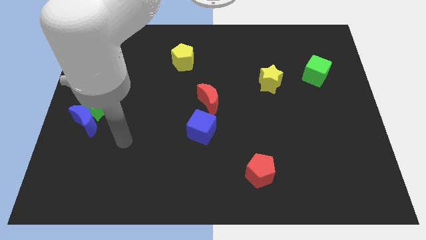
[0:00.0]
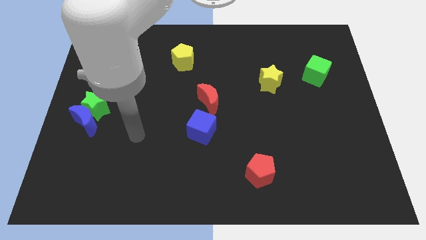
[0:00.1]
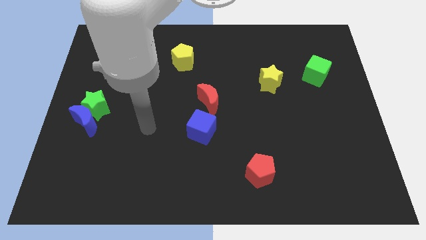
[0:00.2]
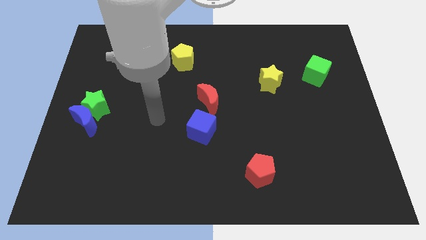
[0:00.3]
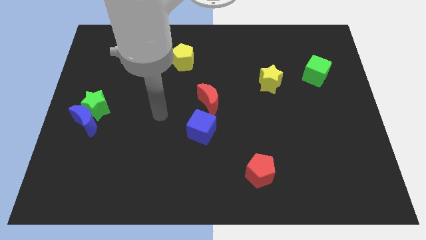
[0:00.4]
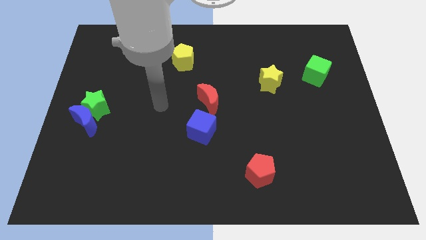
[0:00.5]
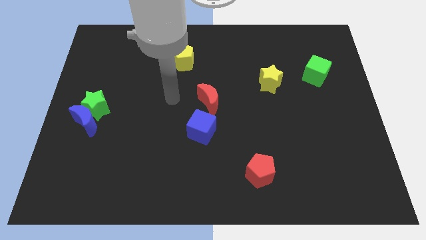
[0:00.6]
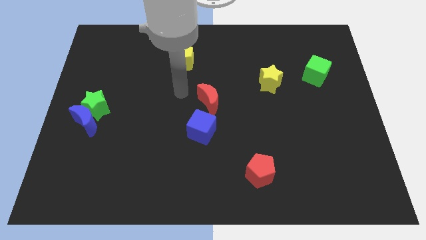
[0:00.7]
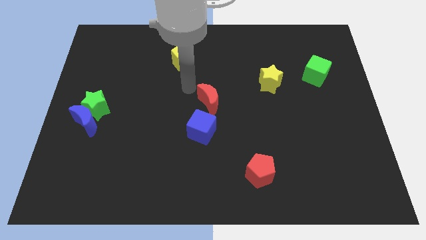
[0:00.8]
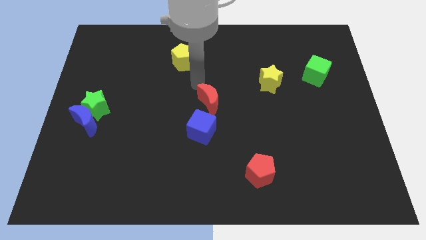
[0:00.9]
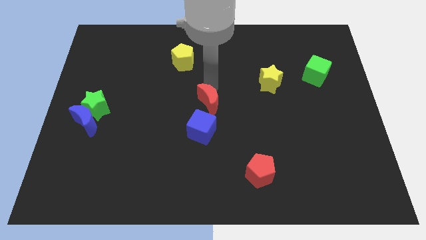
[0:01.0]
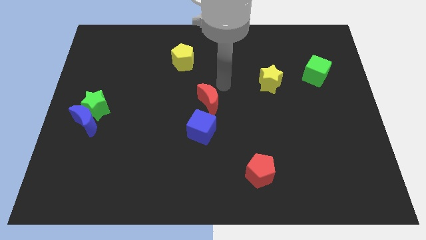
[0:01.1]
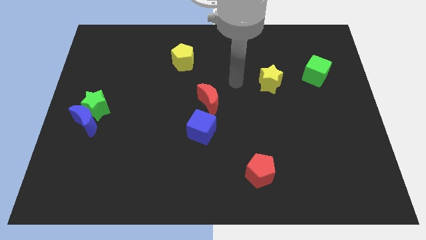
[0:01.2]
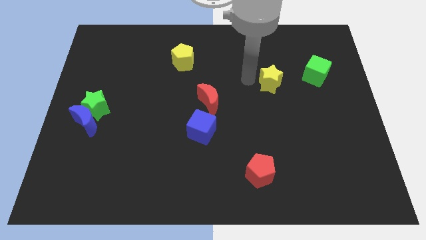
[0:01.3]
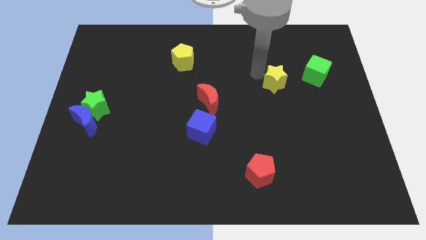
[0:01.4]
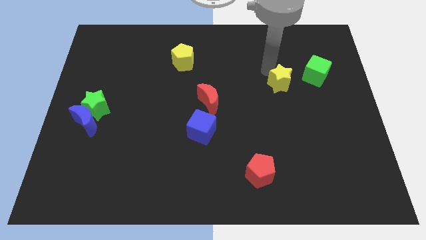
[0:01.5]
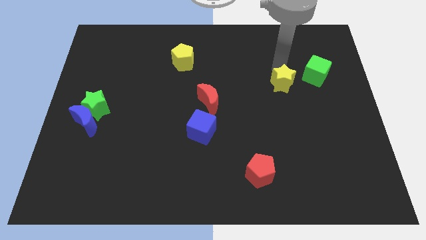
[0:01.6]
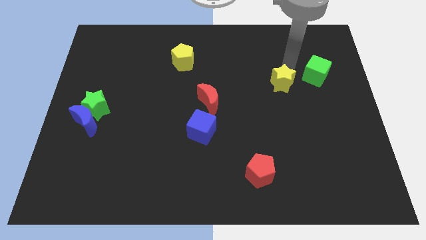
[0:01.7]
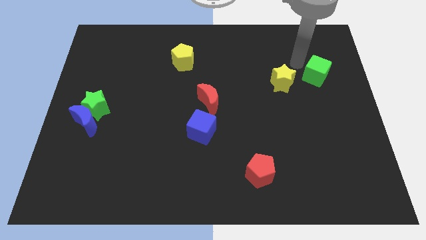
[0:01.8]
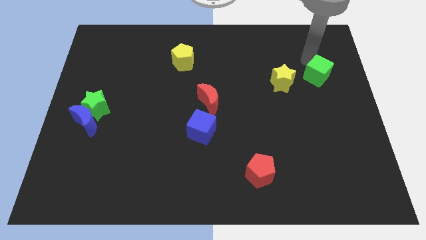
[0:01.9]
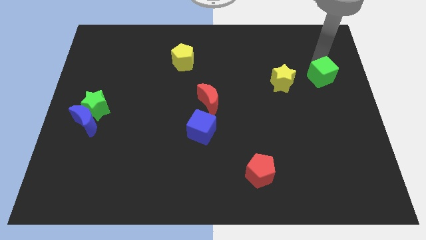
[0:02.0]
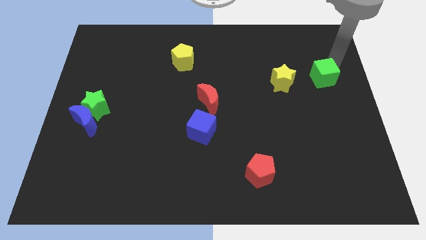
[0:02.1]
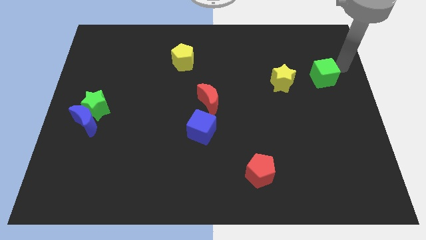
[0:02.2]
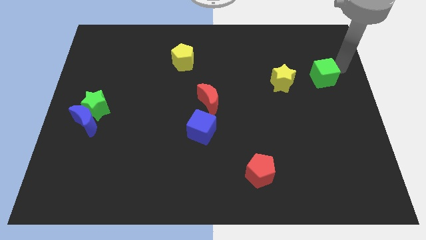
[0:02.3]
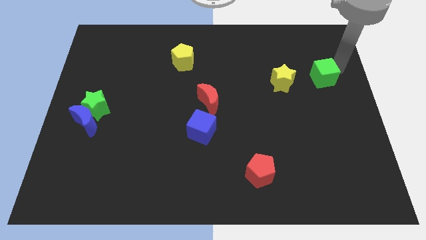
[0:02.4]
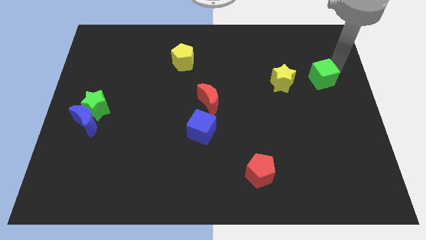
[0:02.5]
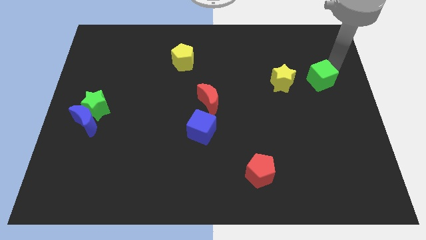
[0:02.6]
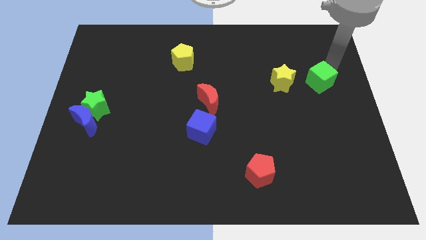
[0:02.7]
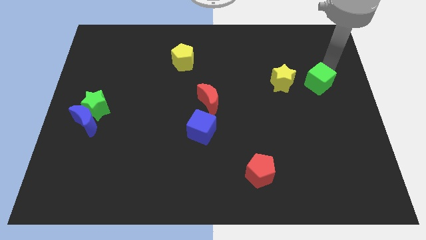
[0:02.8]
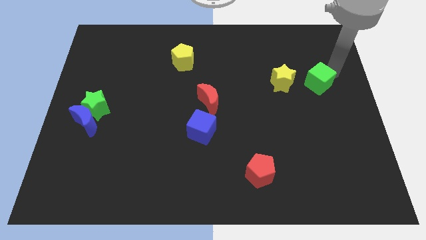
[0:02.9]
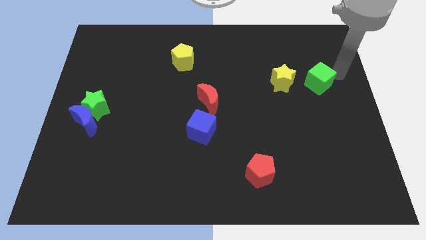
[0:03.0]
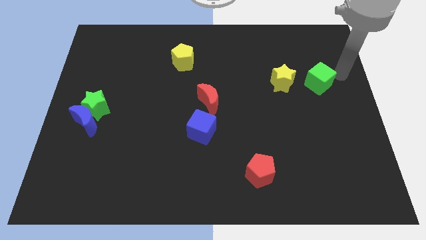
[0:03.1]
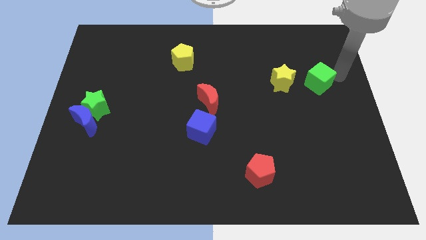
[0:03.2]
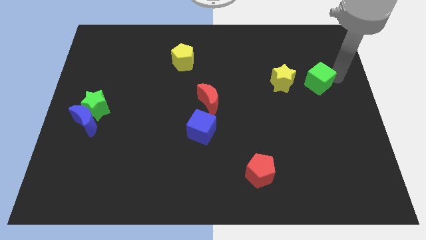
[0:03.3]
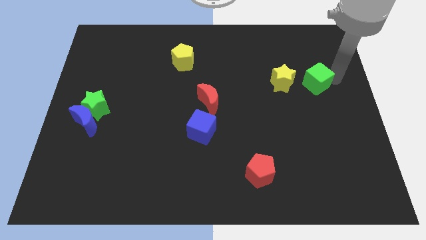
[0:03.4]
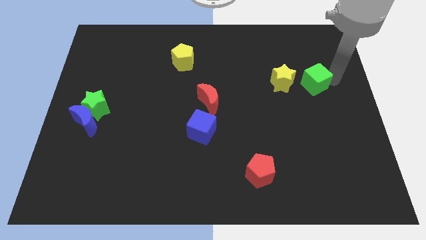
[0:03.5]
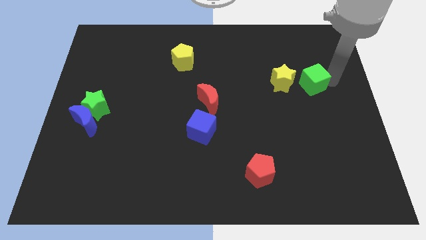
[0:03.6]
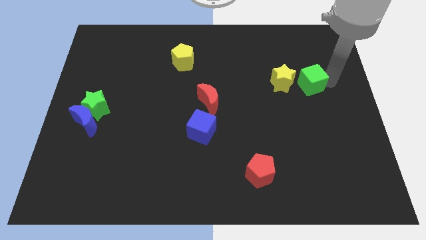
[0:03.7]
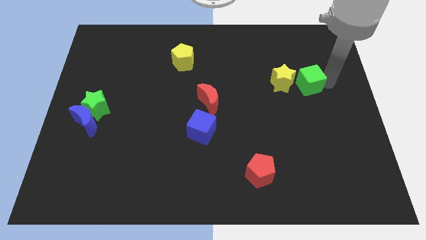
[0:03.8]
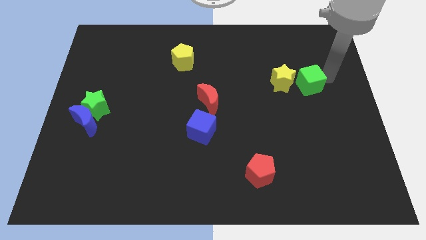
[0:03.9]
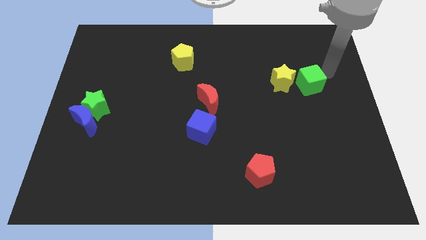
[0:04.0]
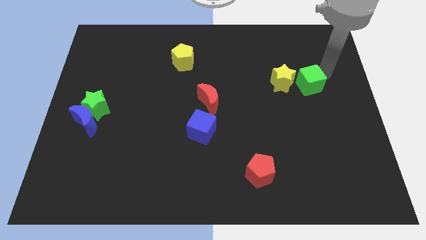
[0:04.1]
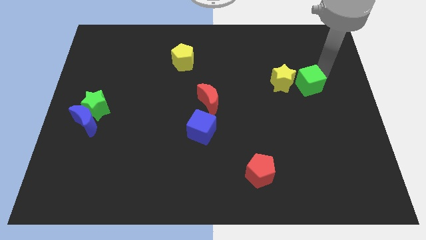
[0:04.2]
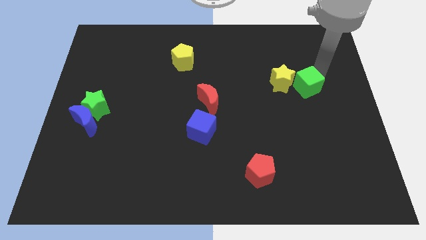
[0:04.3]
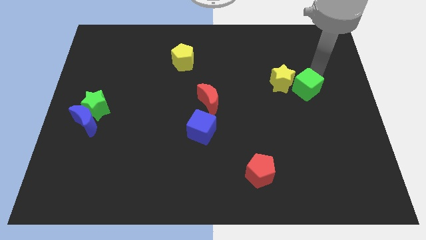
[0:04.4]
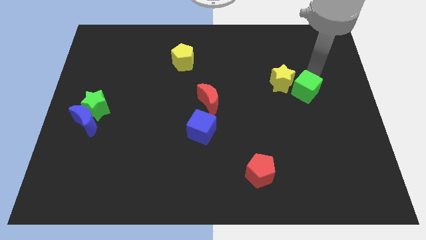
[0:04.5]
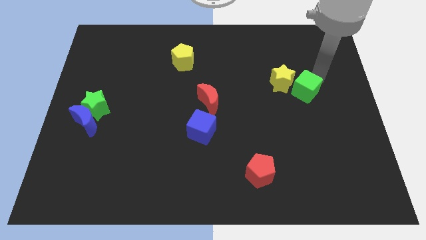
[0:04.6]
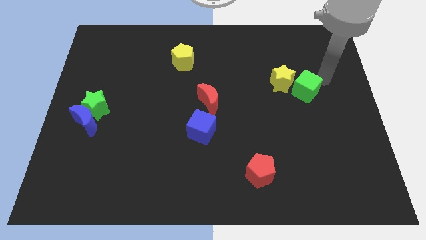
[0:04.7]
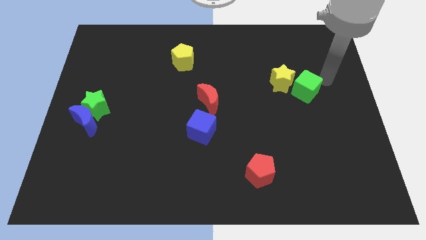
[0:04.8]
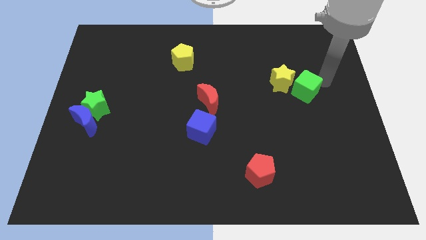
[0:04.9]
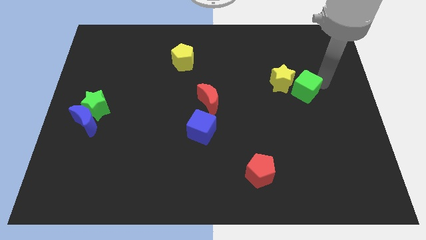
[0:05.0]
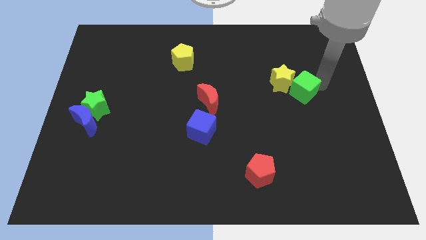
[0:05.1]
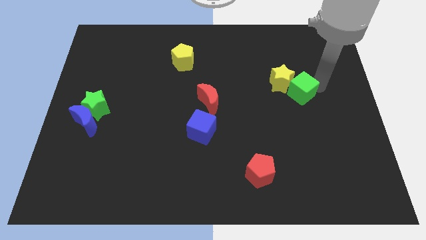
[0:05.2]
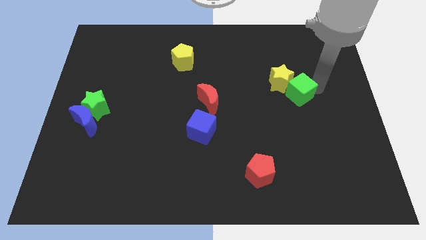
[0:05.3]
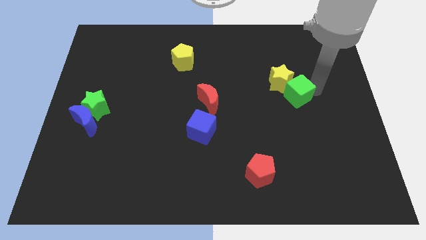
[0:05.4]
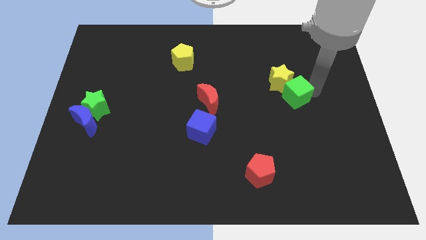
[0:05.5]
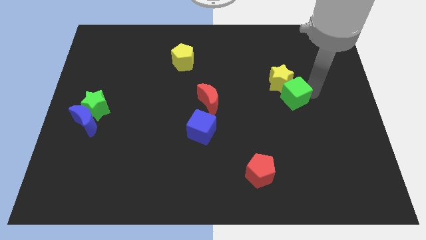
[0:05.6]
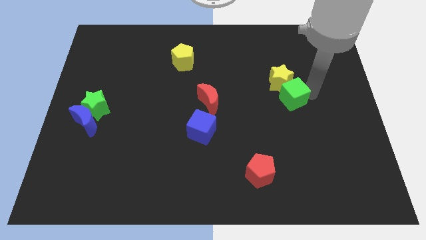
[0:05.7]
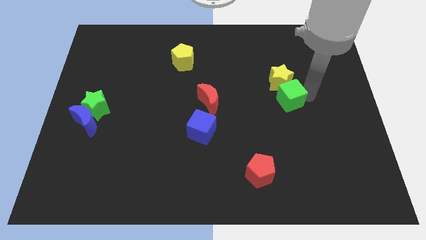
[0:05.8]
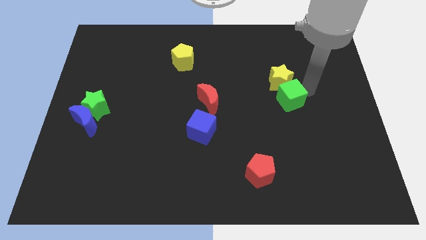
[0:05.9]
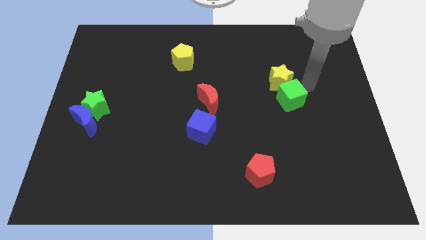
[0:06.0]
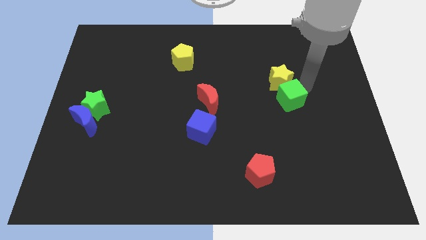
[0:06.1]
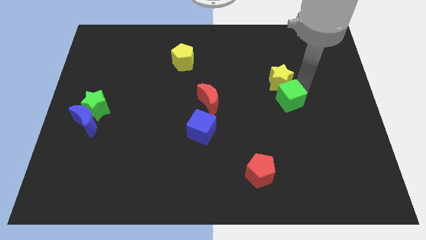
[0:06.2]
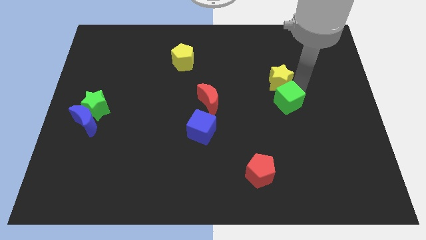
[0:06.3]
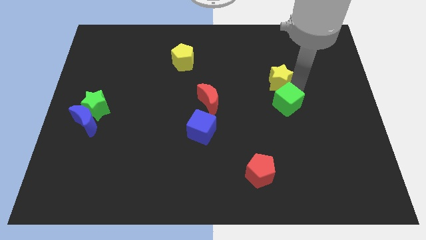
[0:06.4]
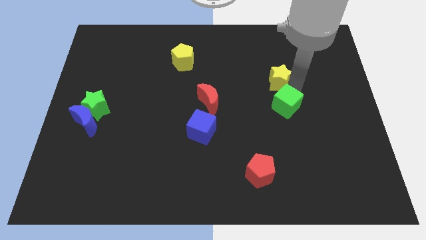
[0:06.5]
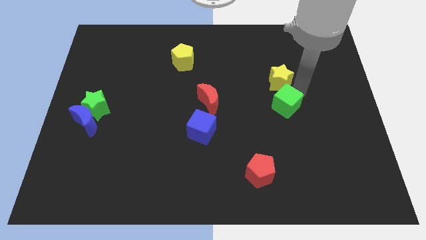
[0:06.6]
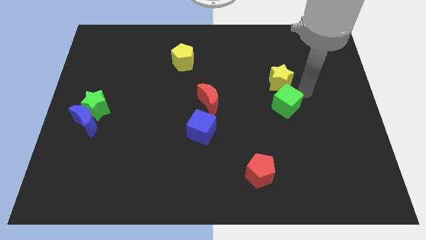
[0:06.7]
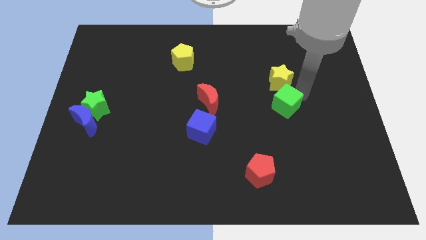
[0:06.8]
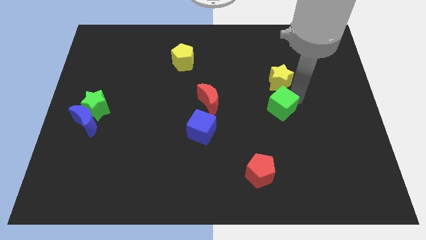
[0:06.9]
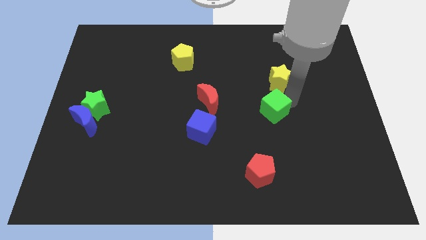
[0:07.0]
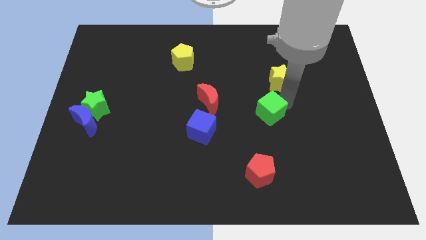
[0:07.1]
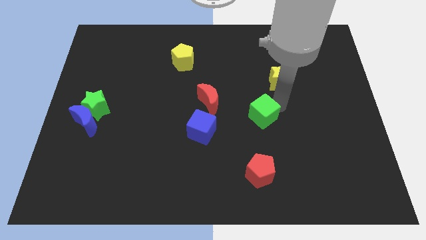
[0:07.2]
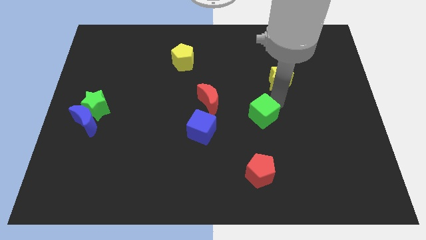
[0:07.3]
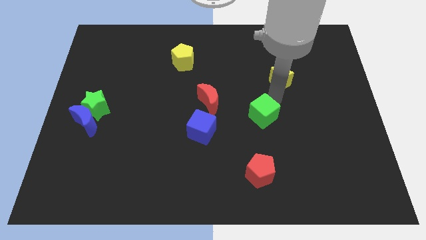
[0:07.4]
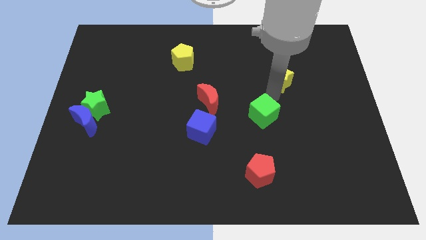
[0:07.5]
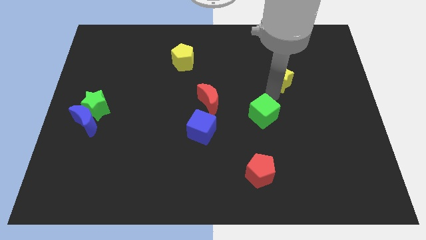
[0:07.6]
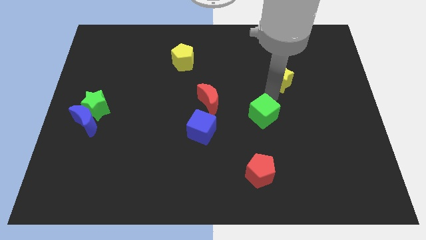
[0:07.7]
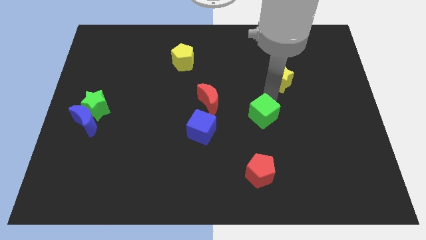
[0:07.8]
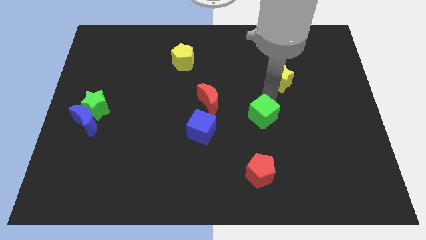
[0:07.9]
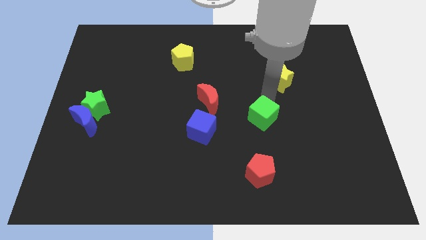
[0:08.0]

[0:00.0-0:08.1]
move the green cube down and to the left diagonally
